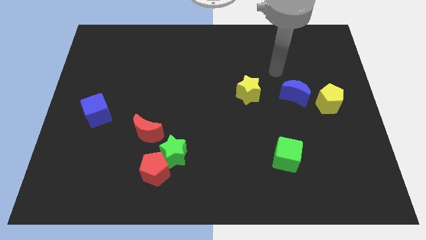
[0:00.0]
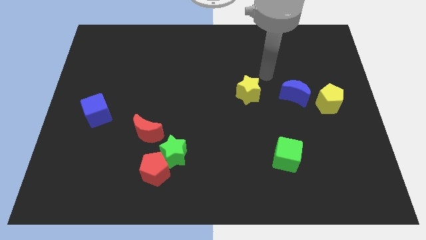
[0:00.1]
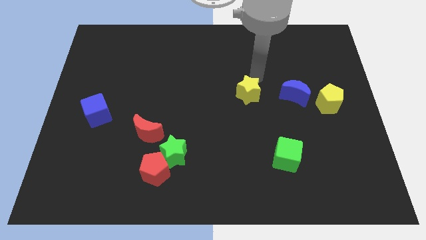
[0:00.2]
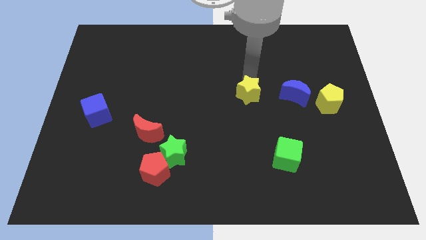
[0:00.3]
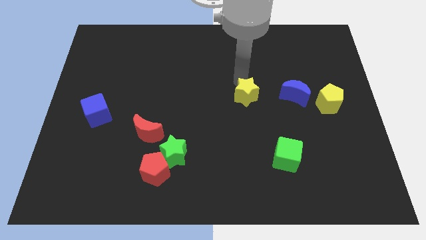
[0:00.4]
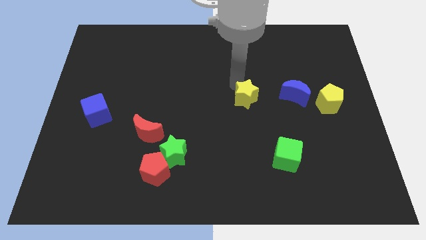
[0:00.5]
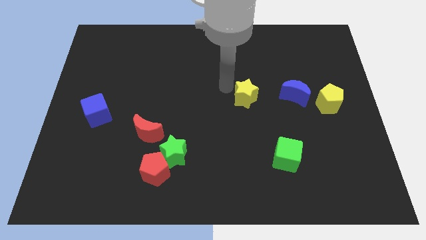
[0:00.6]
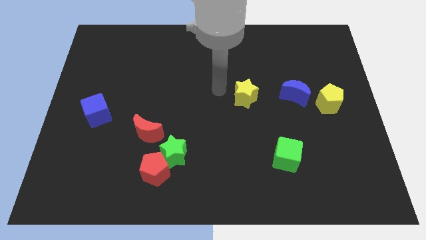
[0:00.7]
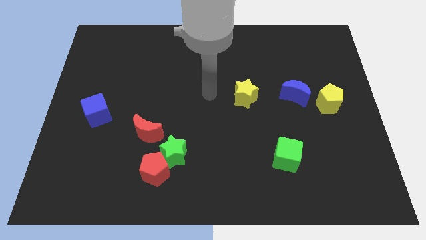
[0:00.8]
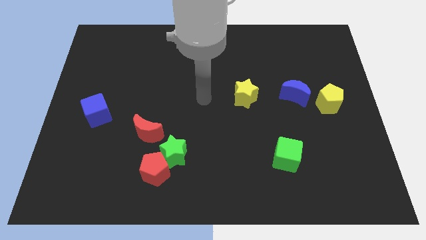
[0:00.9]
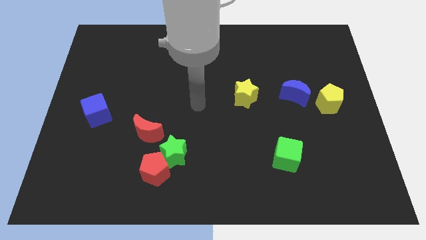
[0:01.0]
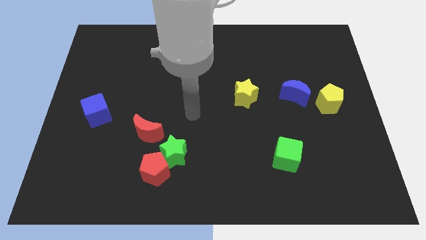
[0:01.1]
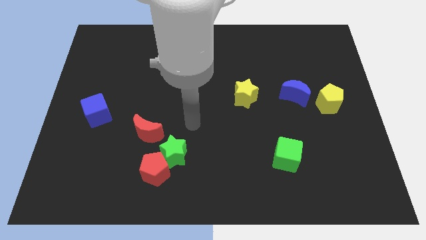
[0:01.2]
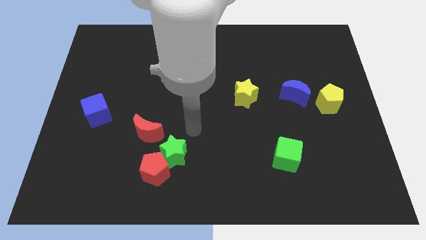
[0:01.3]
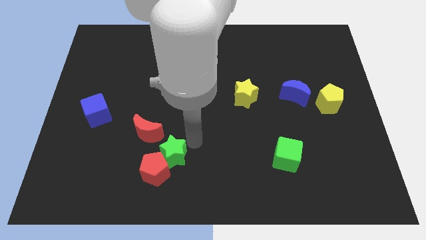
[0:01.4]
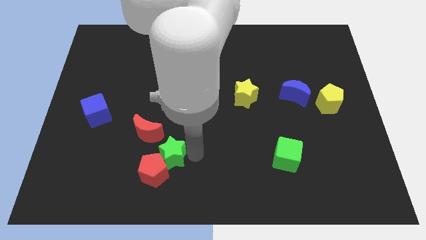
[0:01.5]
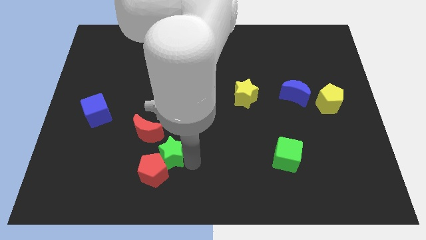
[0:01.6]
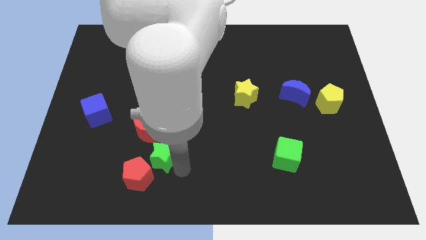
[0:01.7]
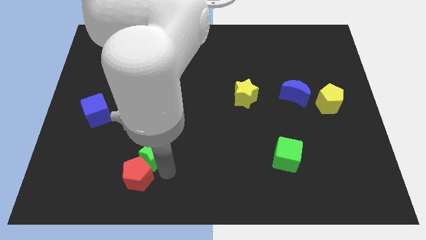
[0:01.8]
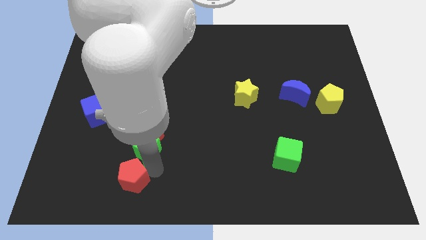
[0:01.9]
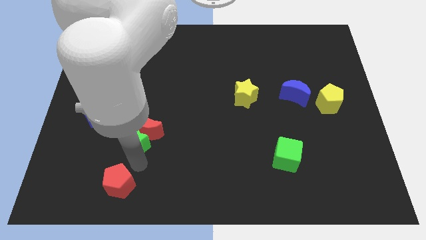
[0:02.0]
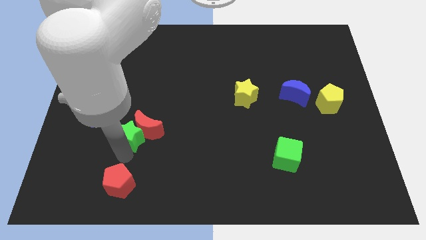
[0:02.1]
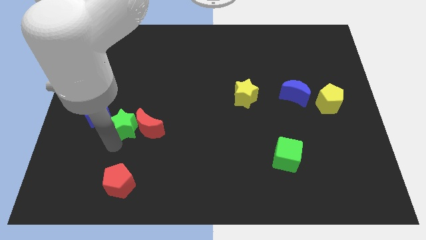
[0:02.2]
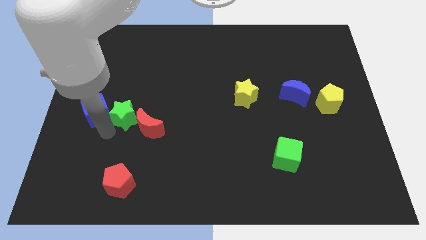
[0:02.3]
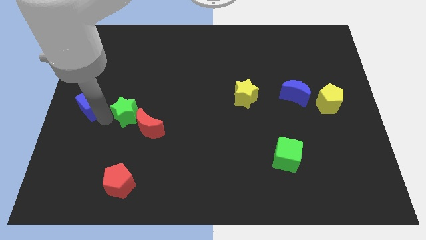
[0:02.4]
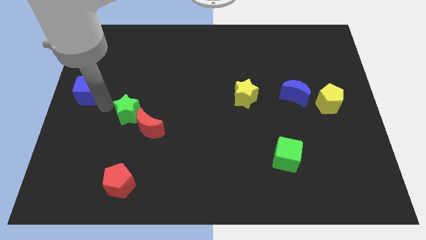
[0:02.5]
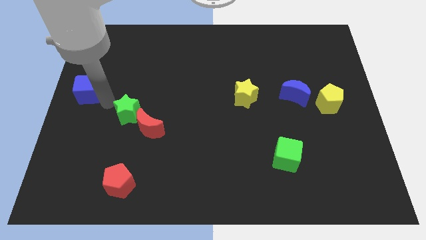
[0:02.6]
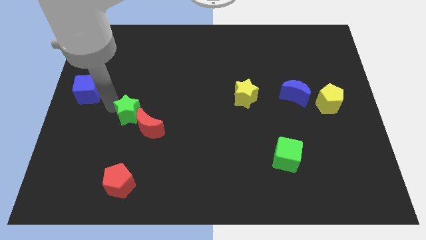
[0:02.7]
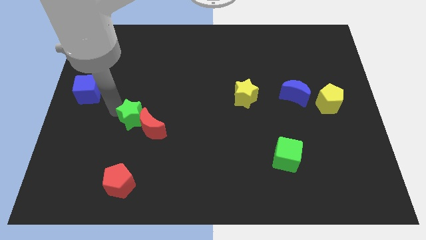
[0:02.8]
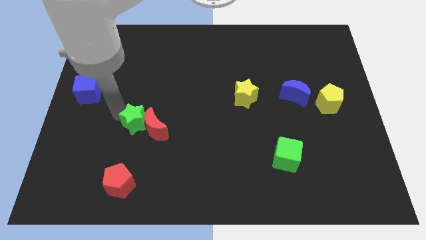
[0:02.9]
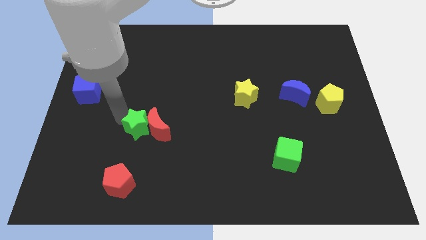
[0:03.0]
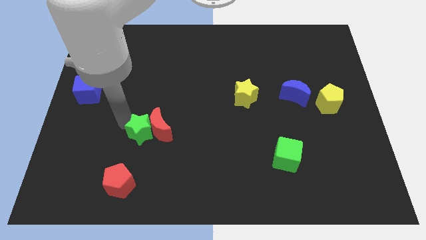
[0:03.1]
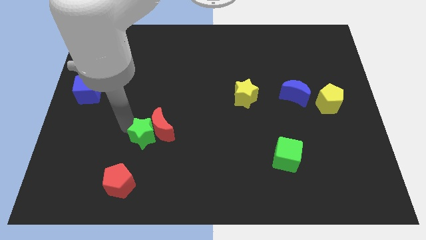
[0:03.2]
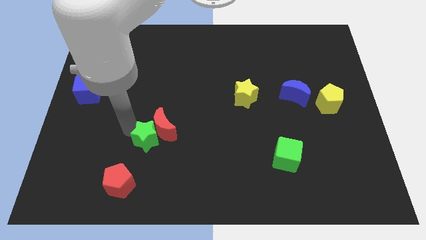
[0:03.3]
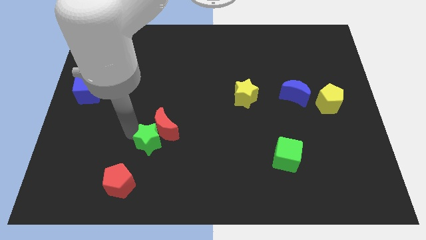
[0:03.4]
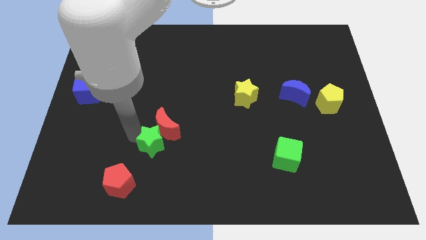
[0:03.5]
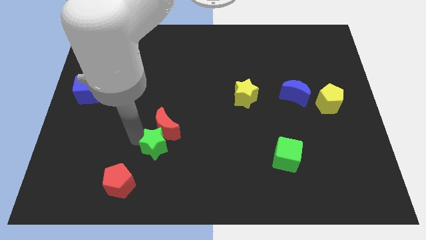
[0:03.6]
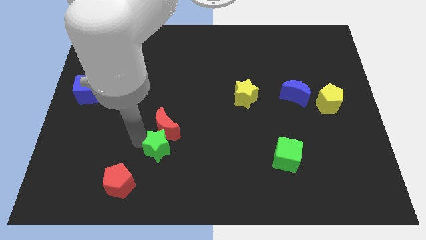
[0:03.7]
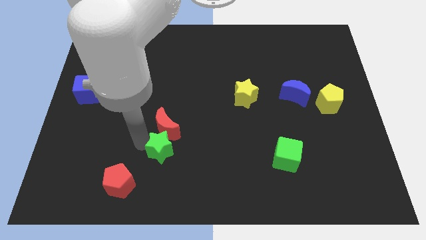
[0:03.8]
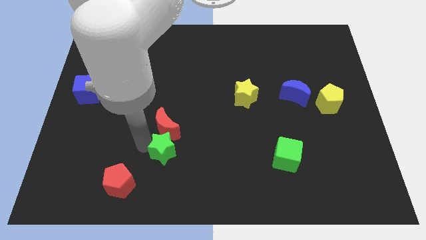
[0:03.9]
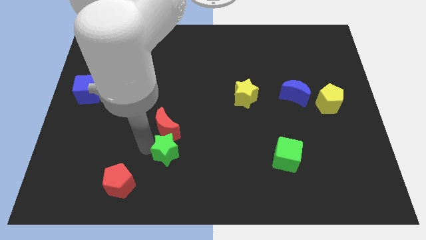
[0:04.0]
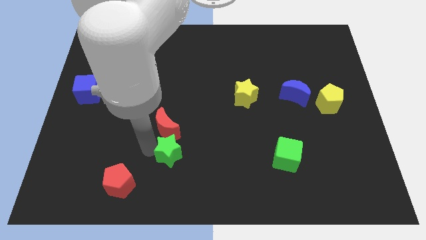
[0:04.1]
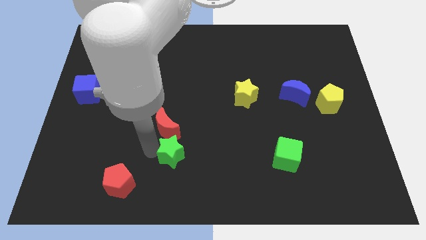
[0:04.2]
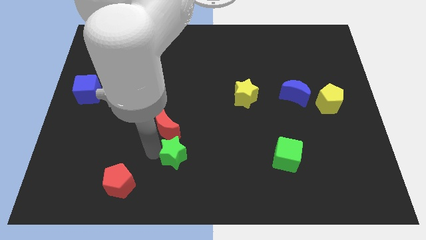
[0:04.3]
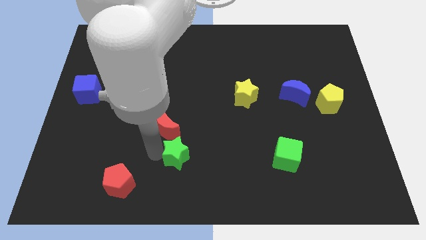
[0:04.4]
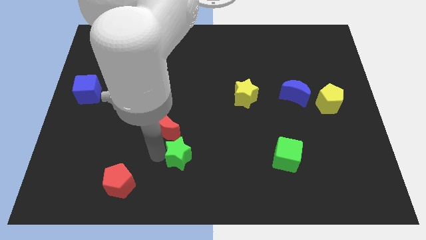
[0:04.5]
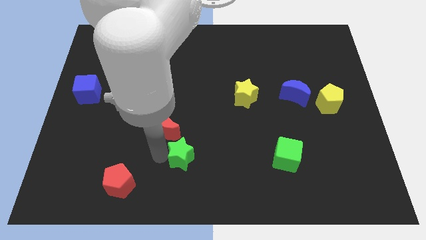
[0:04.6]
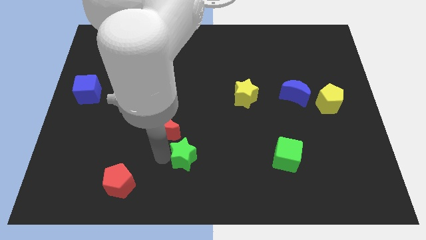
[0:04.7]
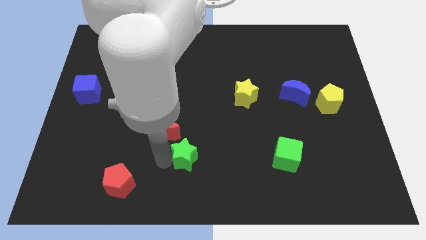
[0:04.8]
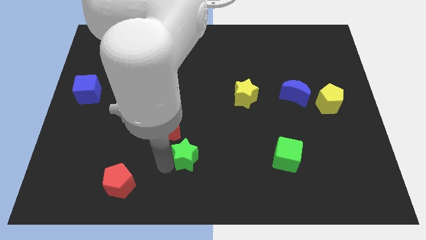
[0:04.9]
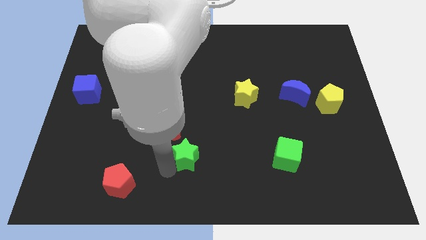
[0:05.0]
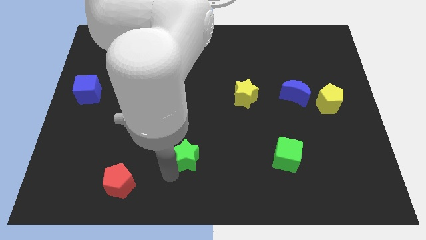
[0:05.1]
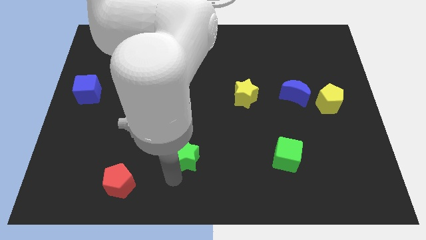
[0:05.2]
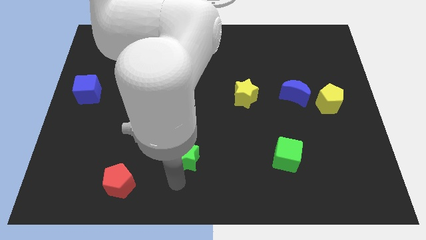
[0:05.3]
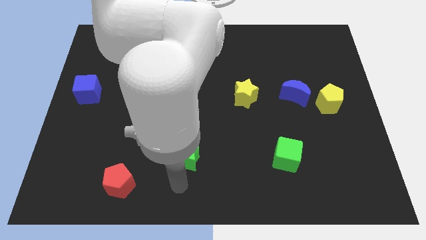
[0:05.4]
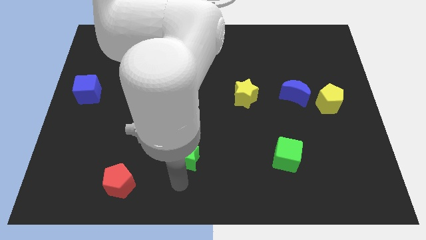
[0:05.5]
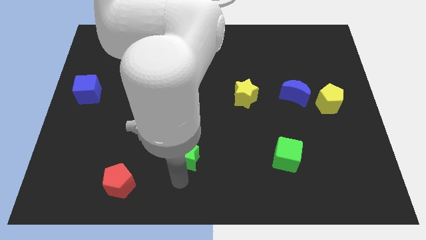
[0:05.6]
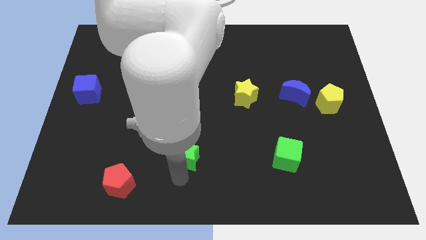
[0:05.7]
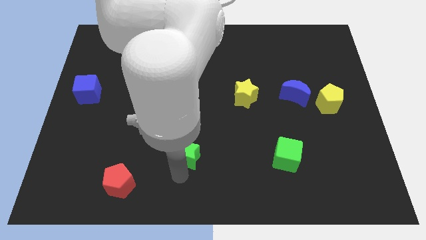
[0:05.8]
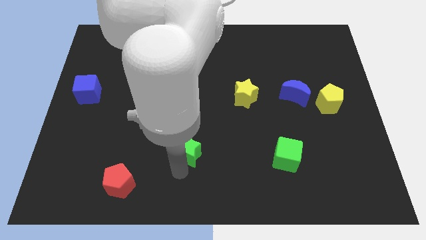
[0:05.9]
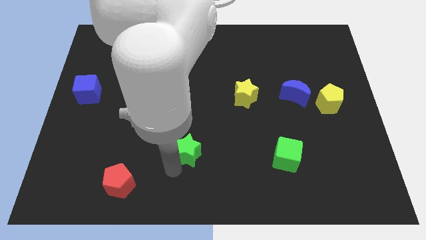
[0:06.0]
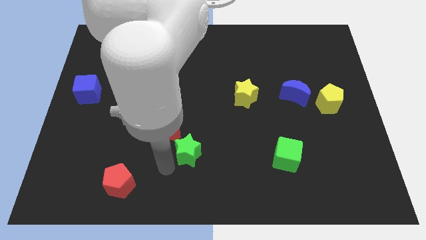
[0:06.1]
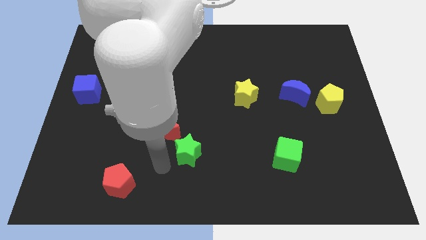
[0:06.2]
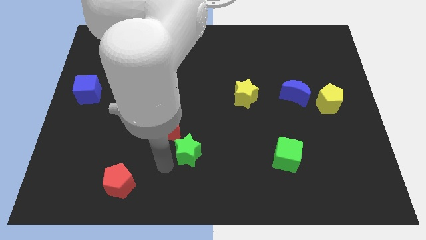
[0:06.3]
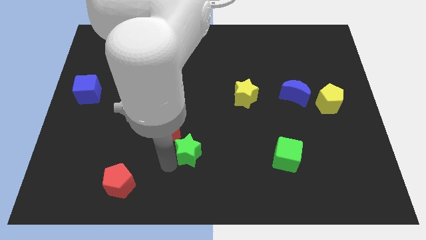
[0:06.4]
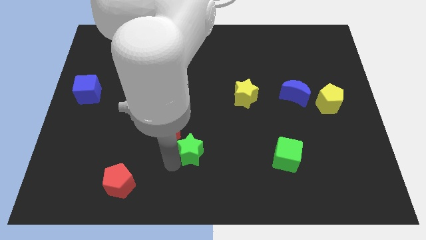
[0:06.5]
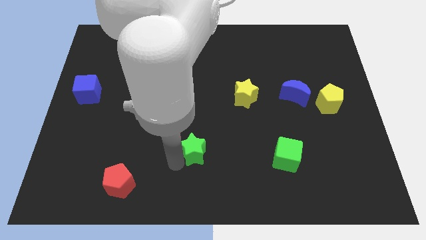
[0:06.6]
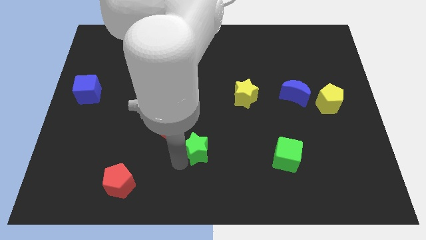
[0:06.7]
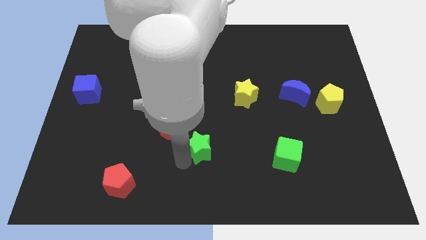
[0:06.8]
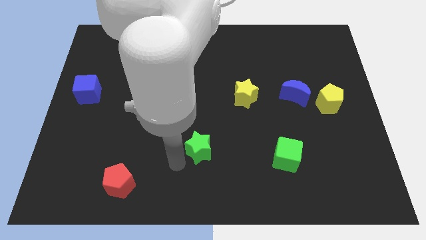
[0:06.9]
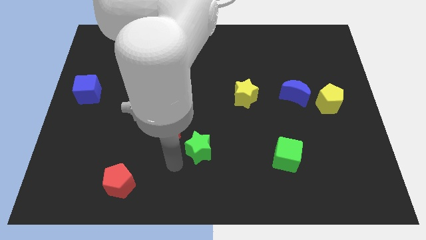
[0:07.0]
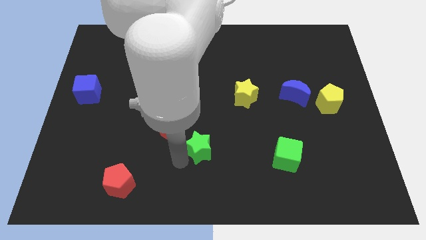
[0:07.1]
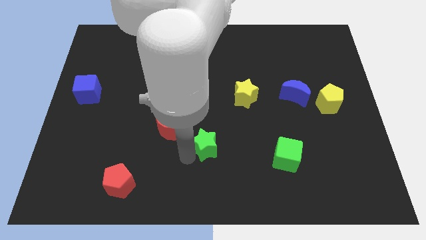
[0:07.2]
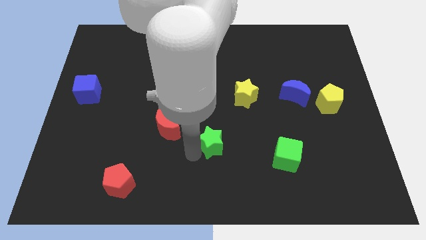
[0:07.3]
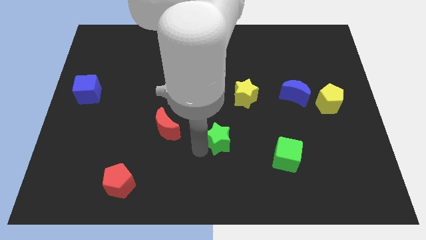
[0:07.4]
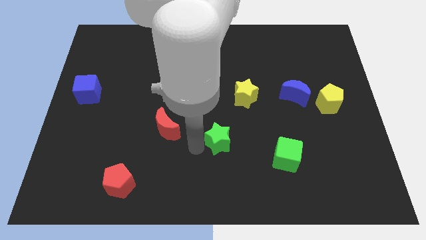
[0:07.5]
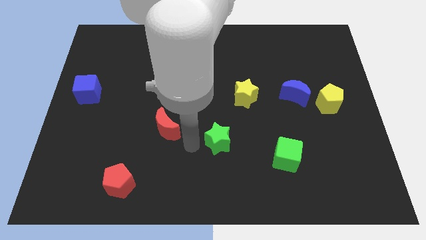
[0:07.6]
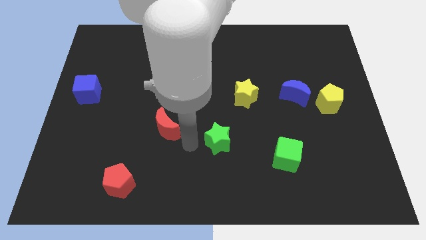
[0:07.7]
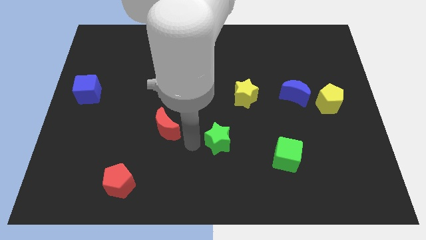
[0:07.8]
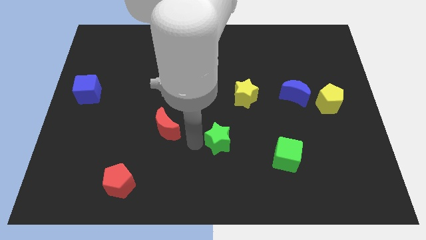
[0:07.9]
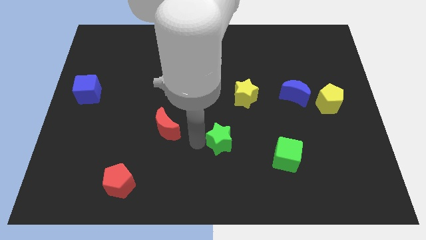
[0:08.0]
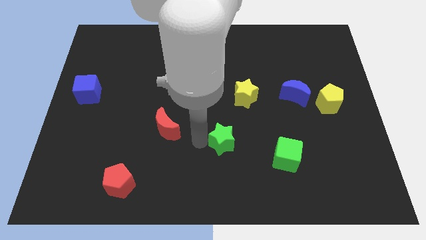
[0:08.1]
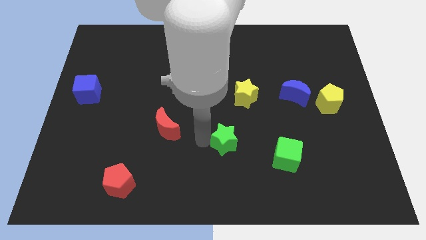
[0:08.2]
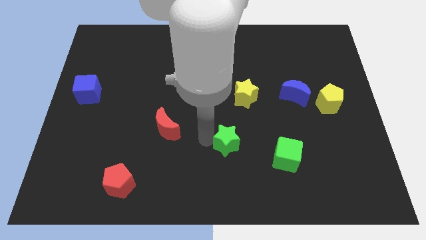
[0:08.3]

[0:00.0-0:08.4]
push the green star below the yellow star
